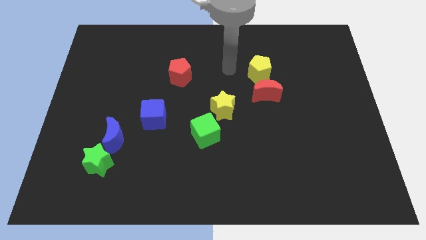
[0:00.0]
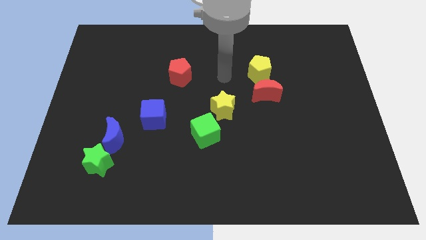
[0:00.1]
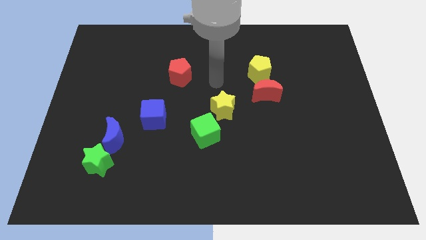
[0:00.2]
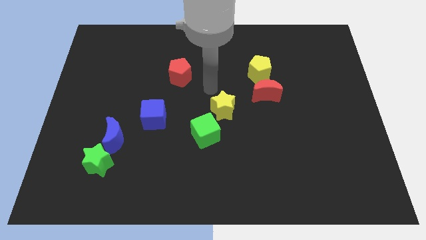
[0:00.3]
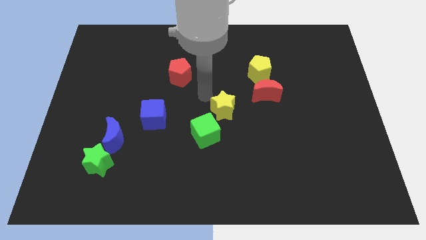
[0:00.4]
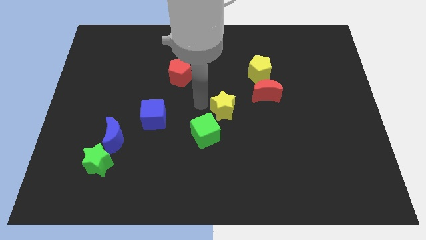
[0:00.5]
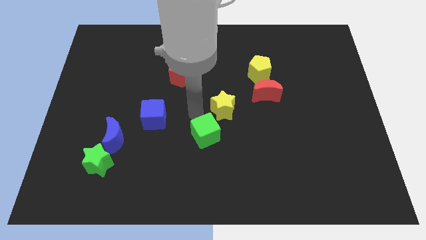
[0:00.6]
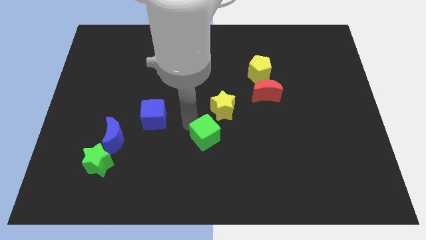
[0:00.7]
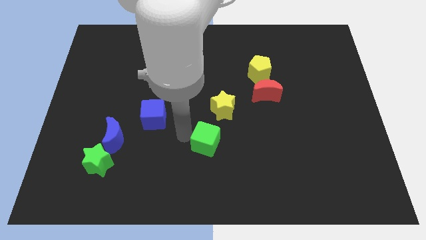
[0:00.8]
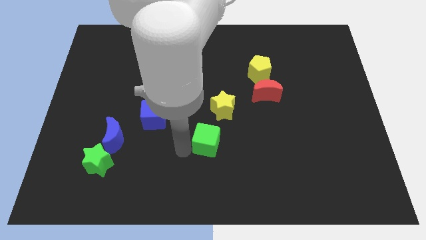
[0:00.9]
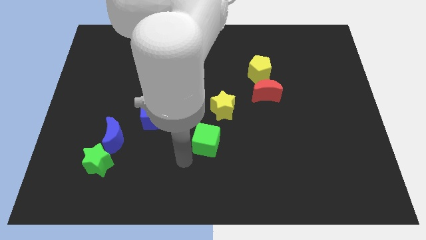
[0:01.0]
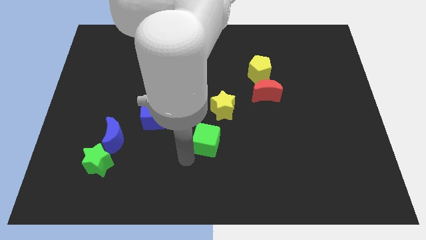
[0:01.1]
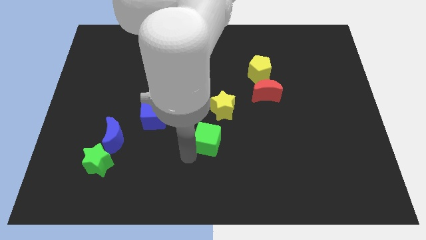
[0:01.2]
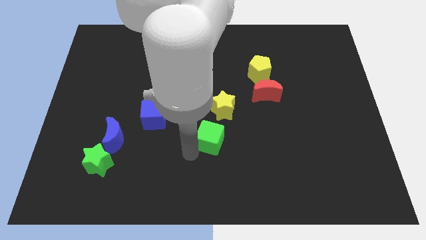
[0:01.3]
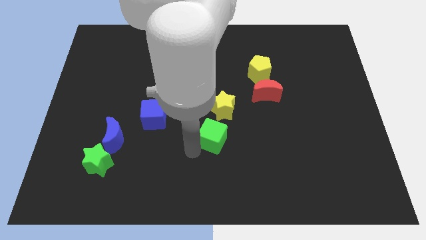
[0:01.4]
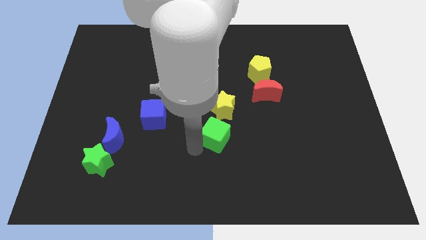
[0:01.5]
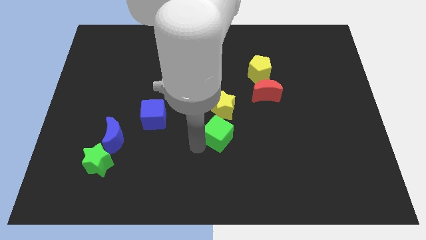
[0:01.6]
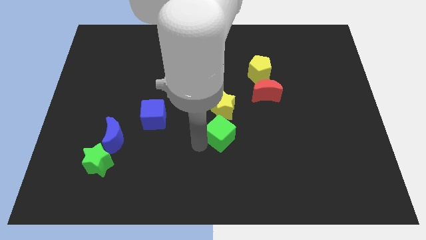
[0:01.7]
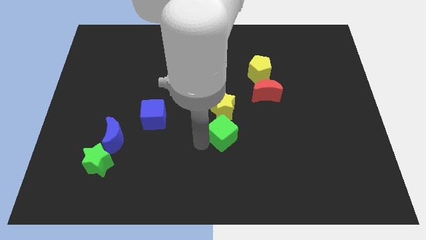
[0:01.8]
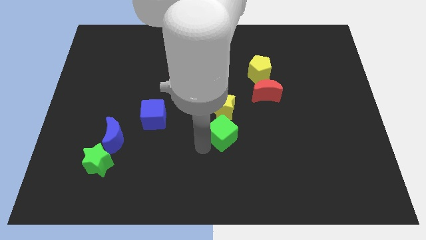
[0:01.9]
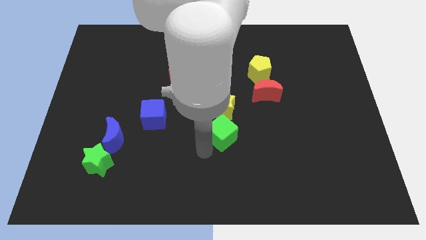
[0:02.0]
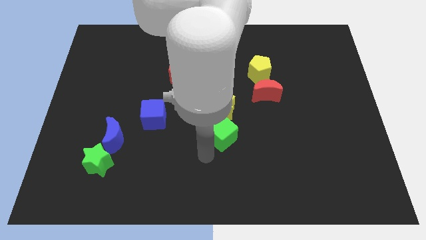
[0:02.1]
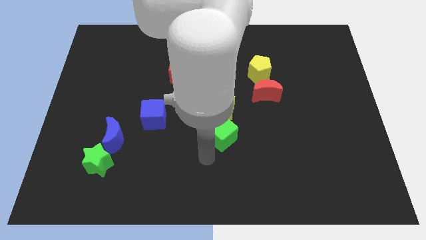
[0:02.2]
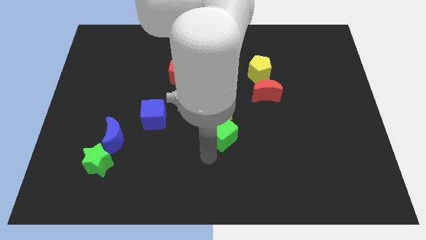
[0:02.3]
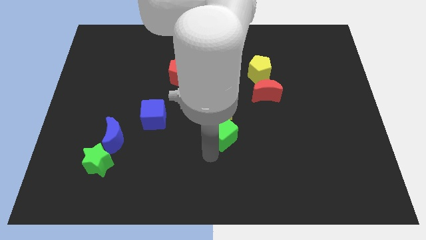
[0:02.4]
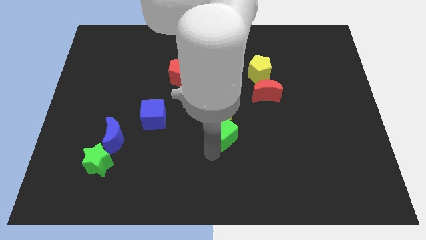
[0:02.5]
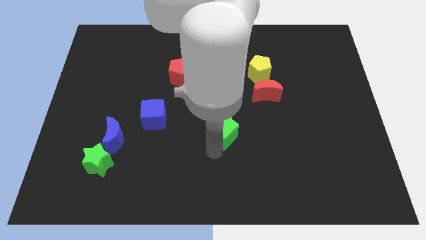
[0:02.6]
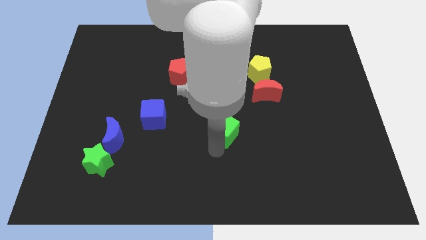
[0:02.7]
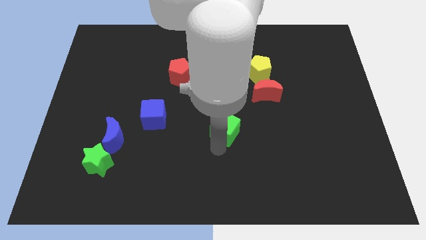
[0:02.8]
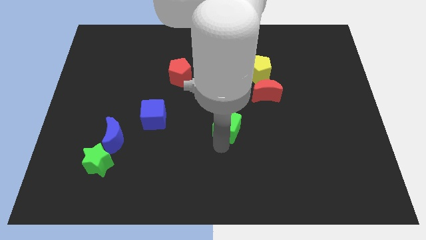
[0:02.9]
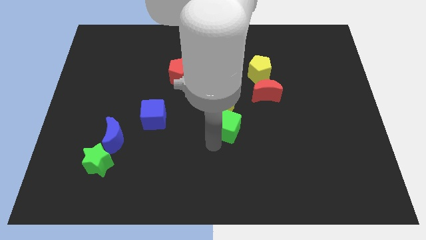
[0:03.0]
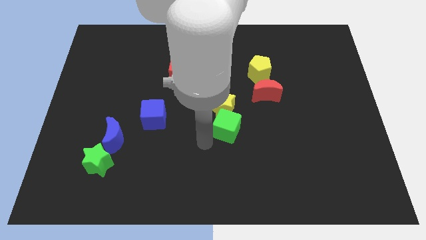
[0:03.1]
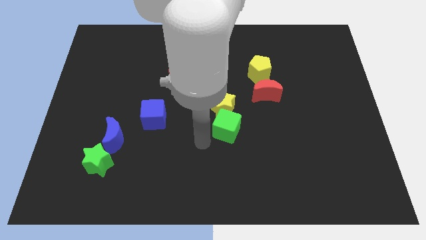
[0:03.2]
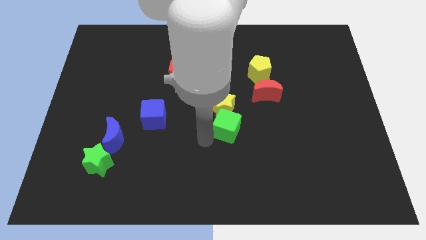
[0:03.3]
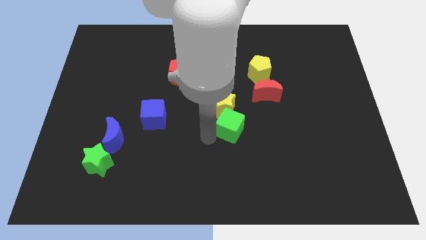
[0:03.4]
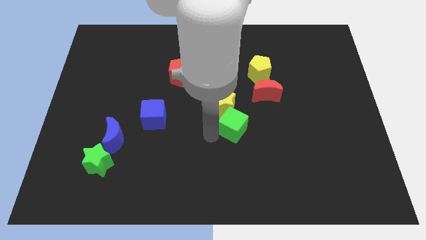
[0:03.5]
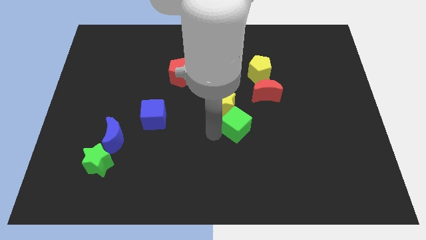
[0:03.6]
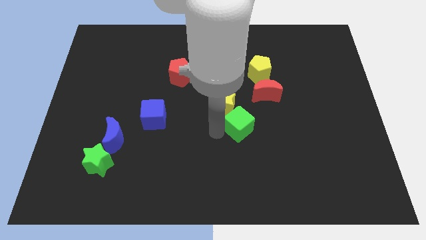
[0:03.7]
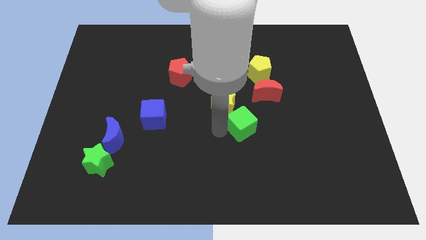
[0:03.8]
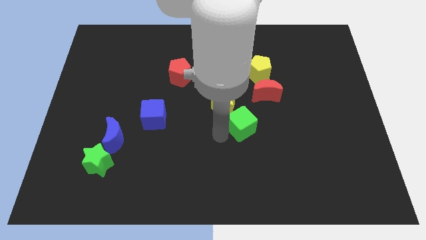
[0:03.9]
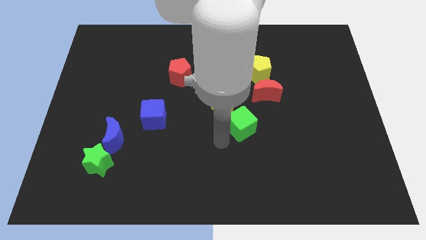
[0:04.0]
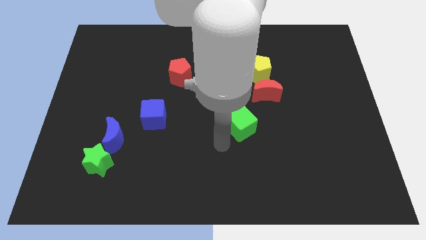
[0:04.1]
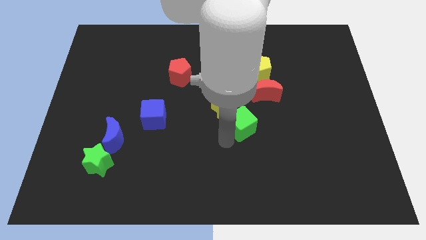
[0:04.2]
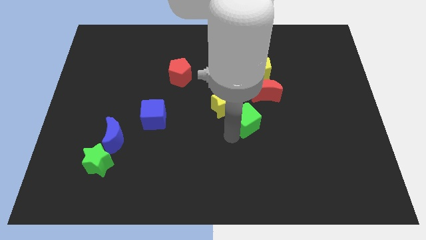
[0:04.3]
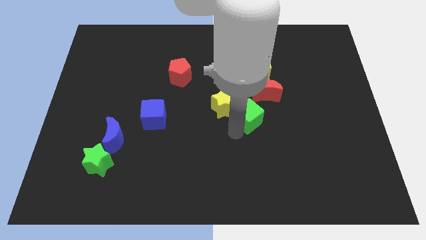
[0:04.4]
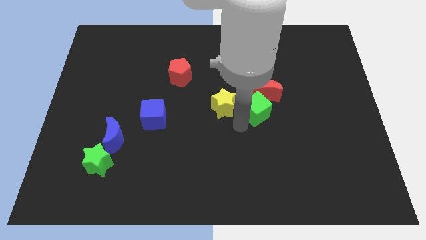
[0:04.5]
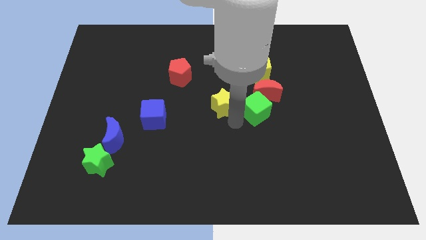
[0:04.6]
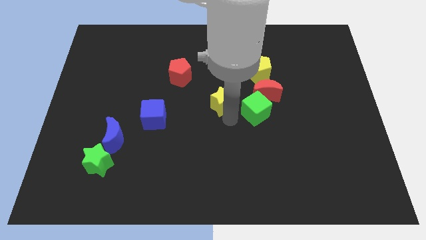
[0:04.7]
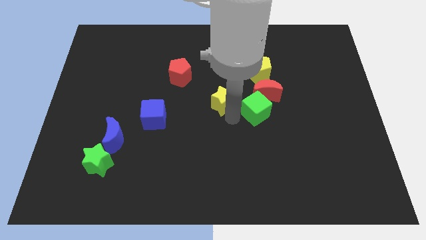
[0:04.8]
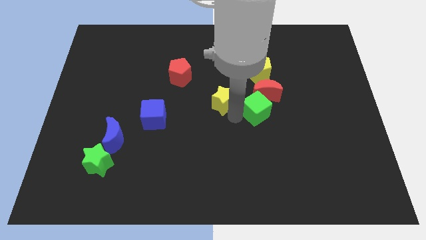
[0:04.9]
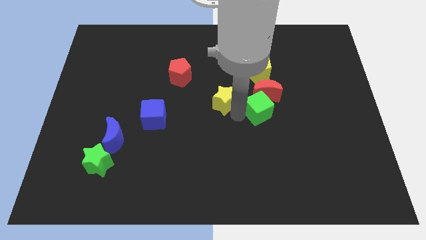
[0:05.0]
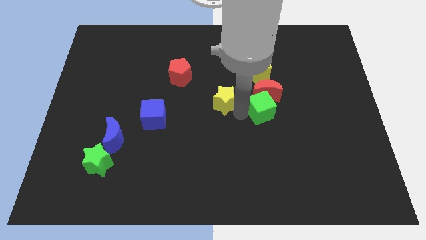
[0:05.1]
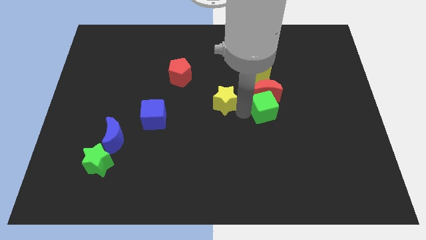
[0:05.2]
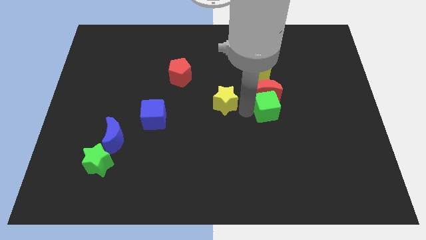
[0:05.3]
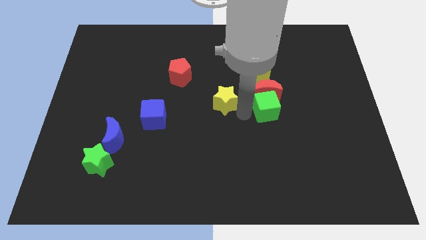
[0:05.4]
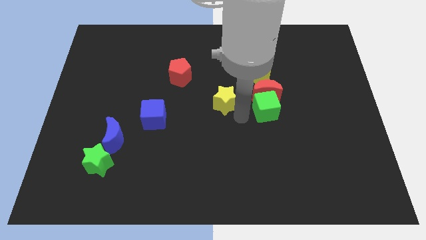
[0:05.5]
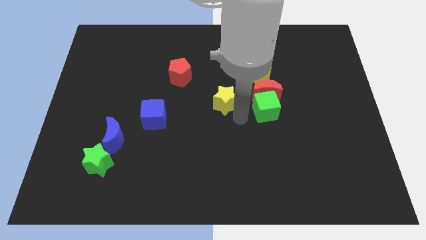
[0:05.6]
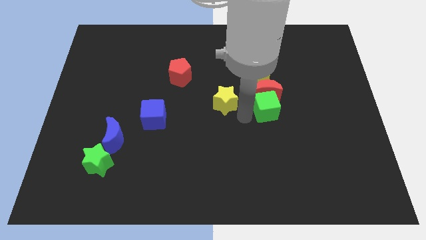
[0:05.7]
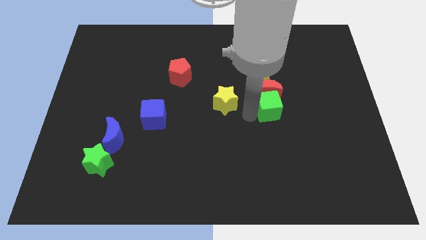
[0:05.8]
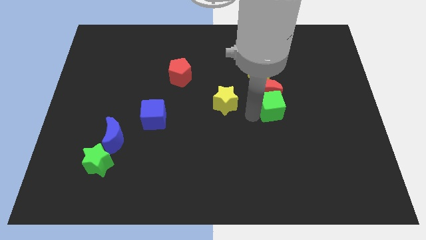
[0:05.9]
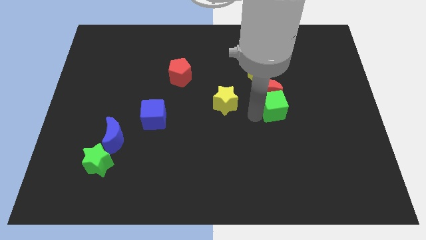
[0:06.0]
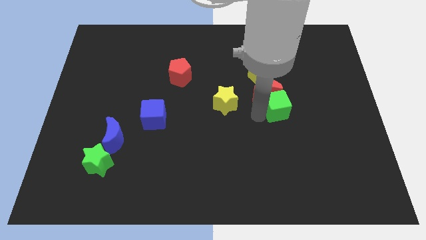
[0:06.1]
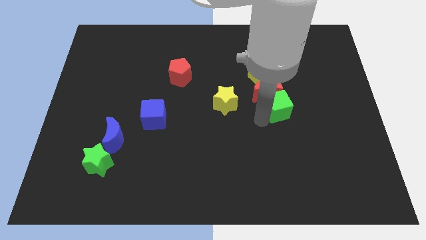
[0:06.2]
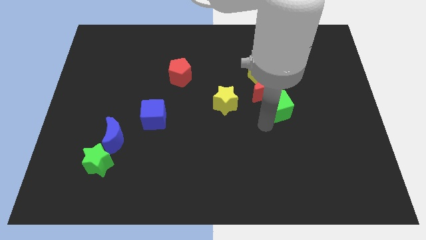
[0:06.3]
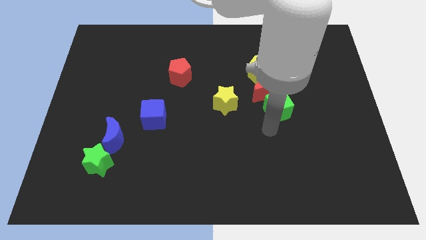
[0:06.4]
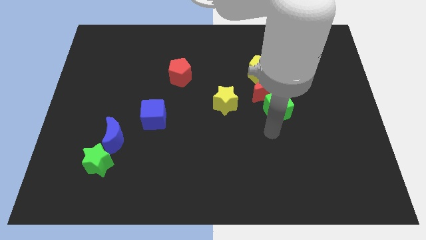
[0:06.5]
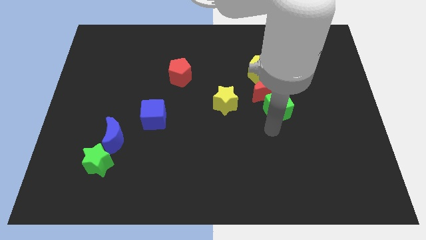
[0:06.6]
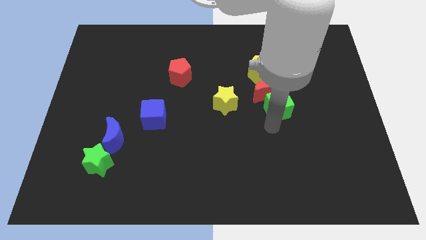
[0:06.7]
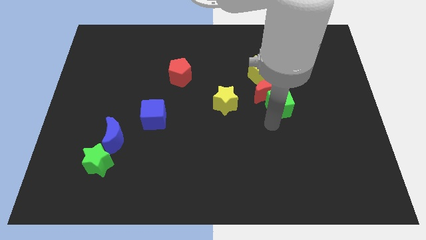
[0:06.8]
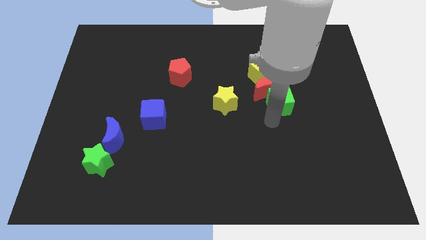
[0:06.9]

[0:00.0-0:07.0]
move the green cube to the bottom right of the yellow pentagon
